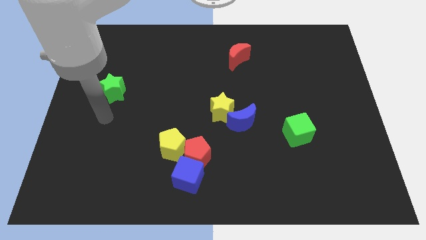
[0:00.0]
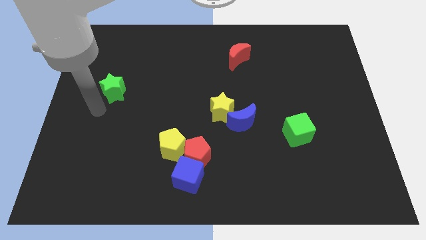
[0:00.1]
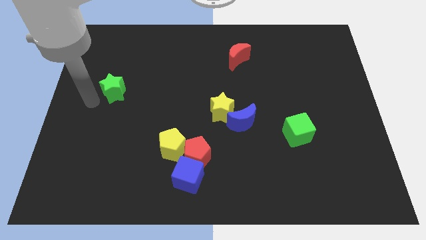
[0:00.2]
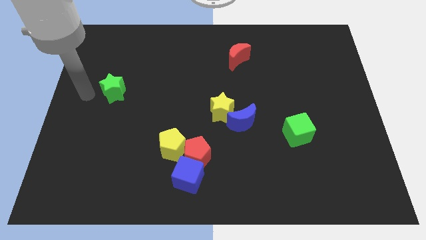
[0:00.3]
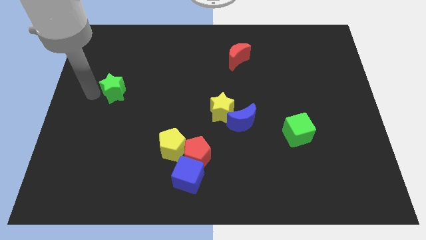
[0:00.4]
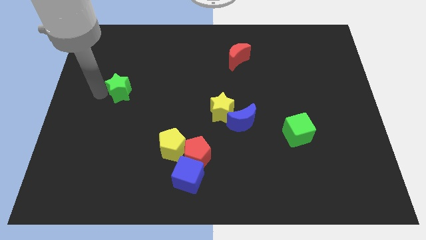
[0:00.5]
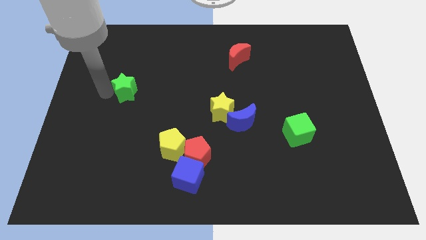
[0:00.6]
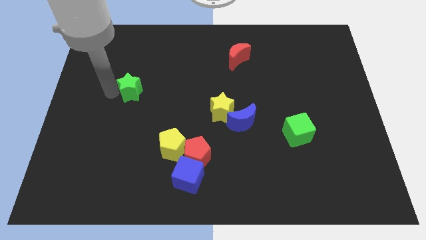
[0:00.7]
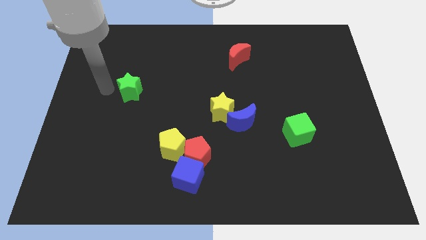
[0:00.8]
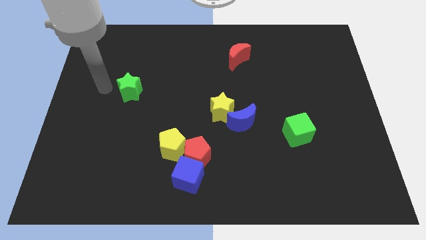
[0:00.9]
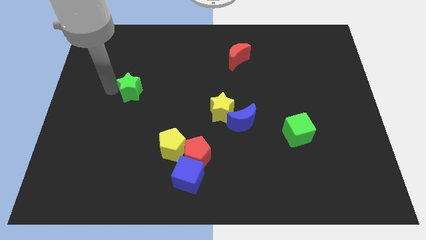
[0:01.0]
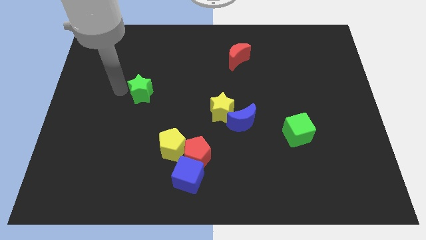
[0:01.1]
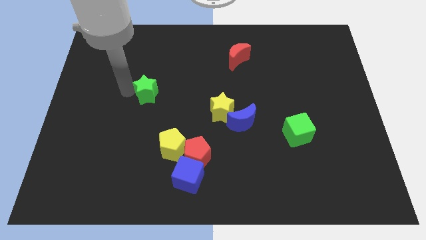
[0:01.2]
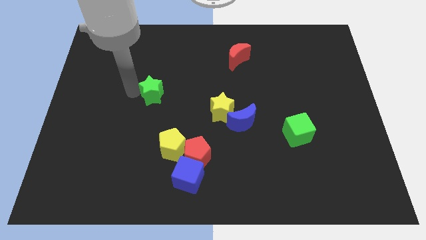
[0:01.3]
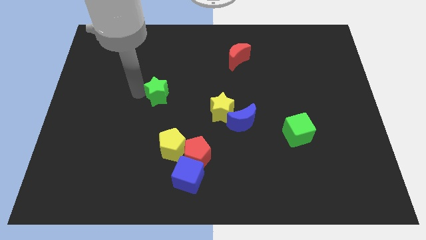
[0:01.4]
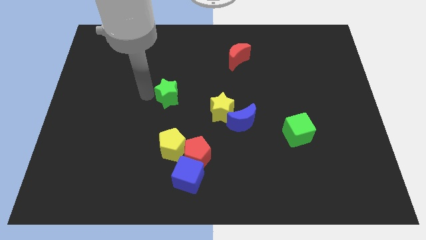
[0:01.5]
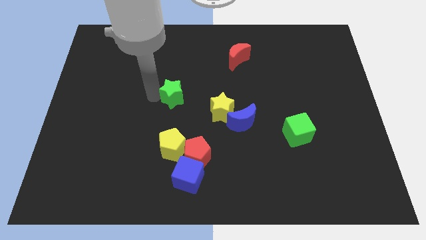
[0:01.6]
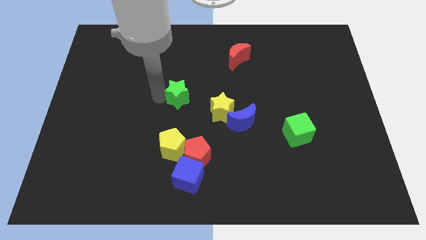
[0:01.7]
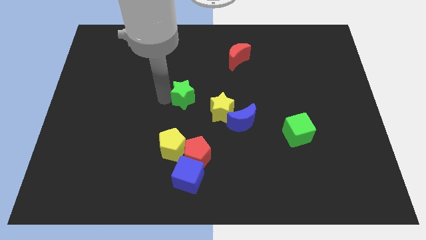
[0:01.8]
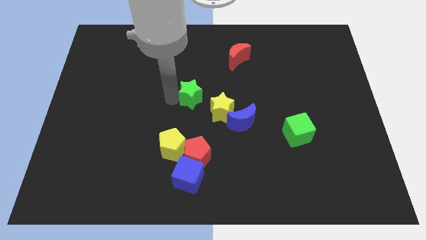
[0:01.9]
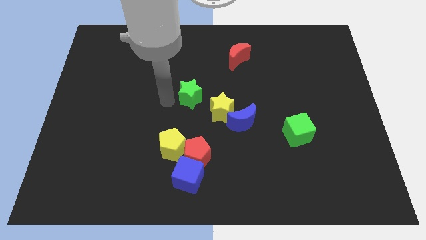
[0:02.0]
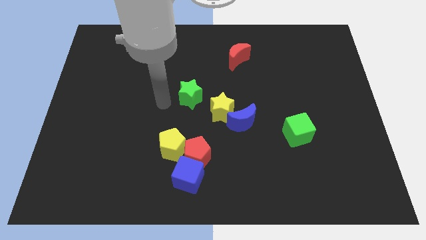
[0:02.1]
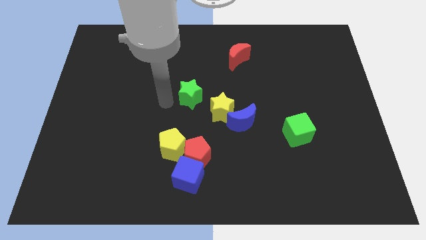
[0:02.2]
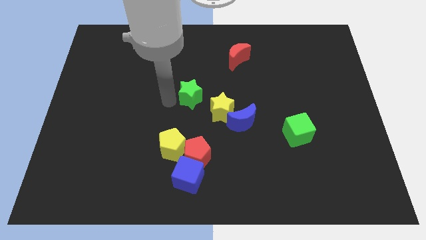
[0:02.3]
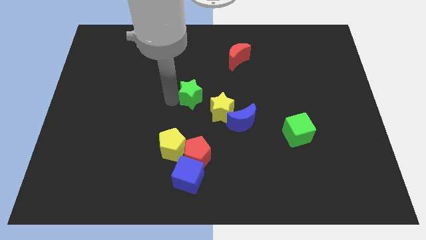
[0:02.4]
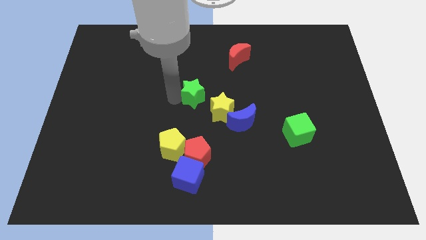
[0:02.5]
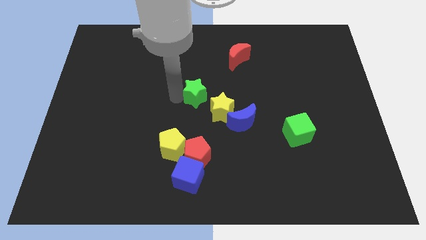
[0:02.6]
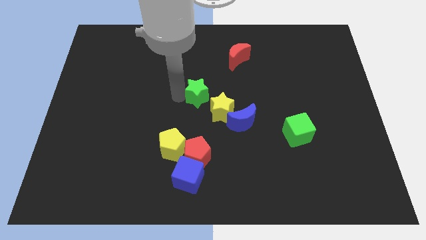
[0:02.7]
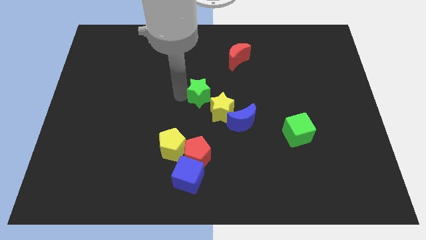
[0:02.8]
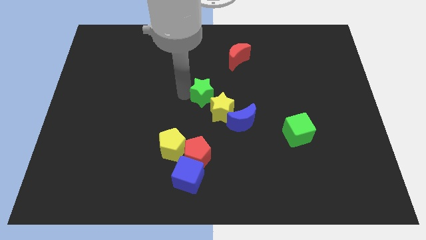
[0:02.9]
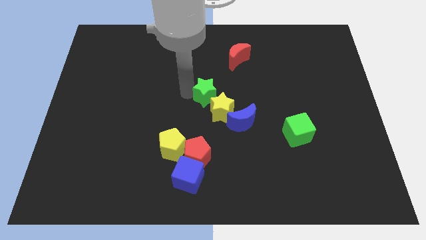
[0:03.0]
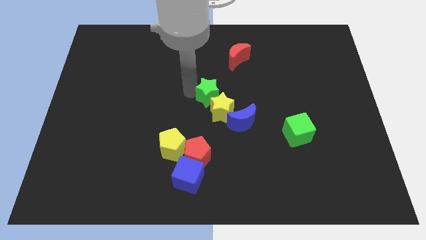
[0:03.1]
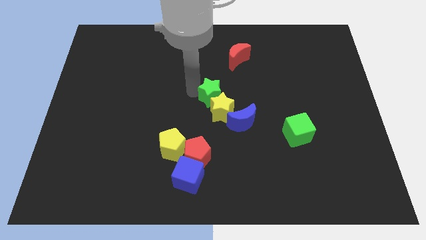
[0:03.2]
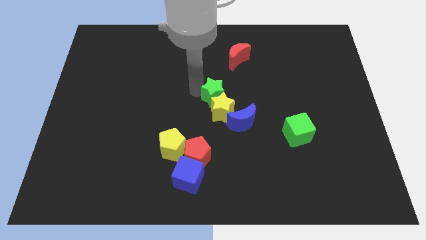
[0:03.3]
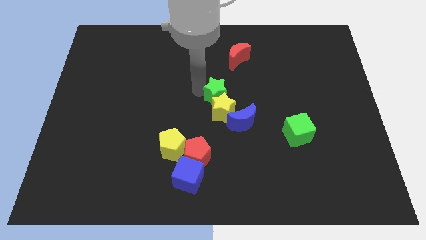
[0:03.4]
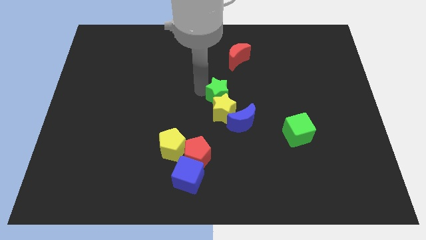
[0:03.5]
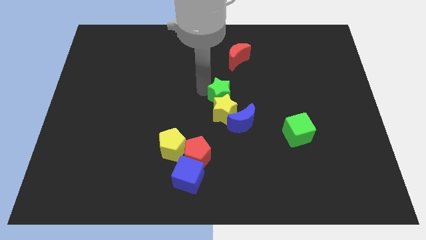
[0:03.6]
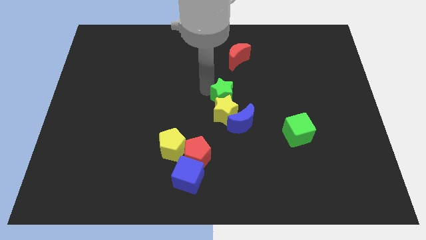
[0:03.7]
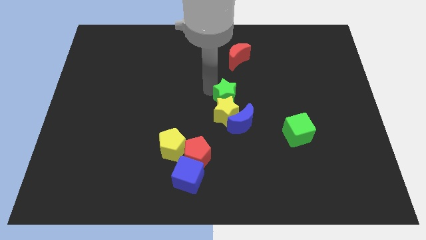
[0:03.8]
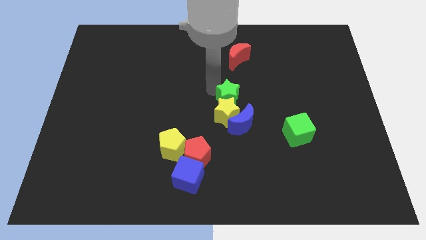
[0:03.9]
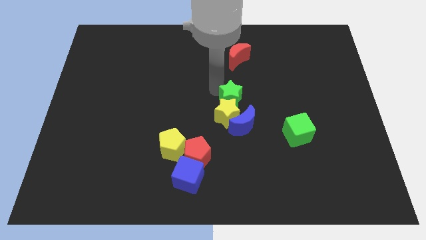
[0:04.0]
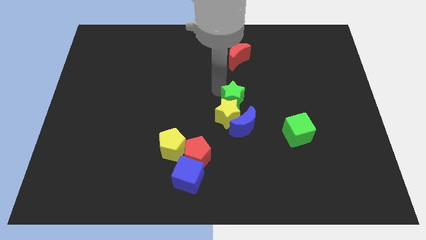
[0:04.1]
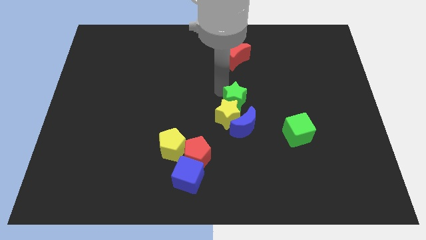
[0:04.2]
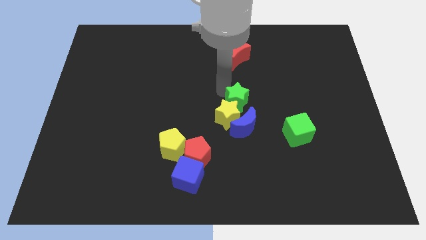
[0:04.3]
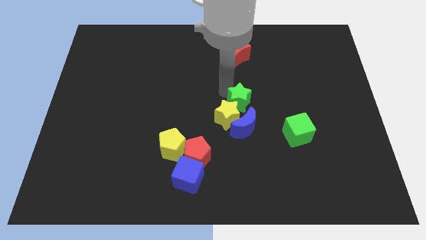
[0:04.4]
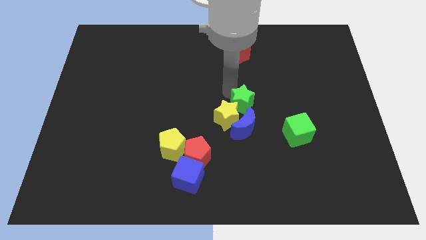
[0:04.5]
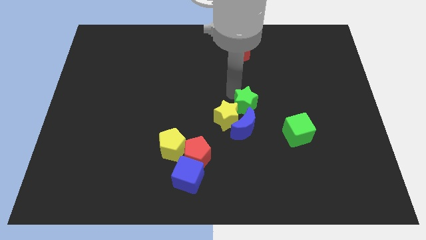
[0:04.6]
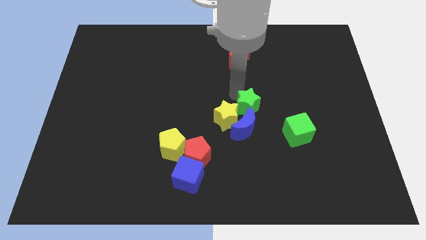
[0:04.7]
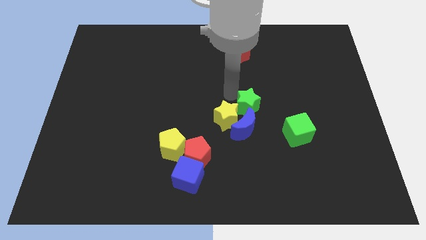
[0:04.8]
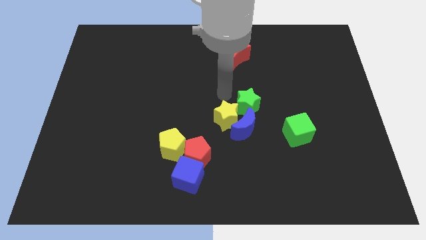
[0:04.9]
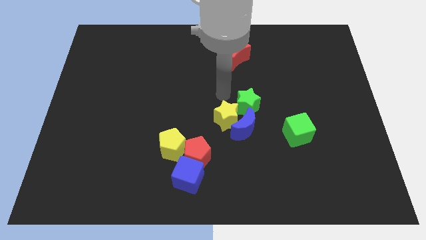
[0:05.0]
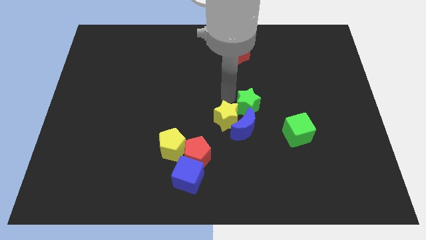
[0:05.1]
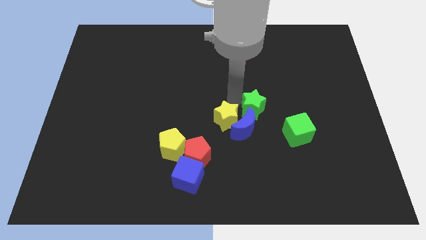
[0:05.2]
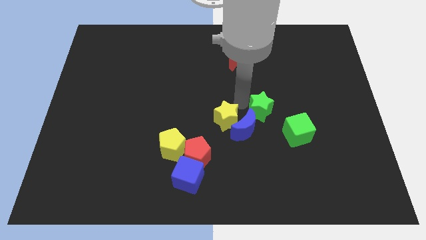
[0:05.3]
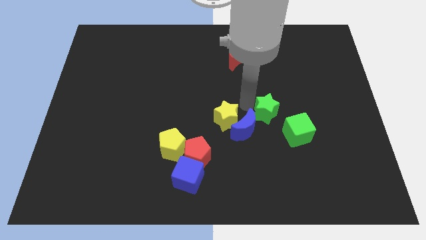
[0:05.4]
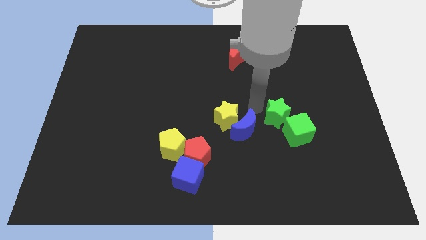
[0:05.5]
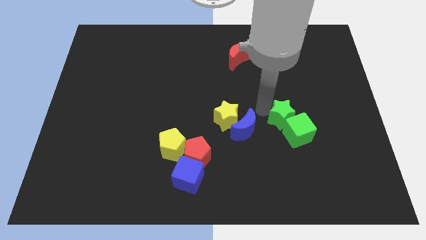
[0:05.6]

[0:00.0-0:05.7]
slide the green star to the green cube

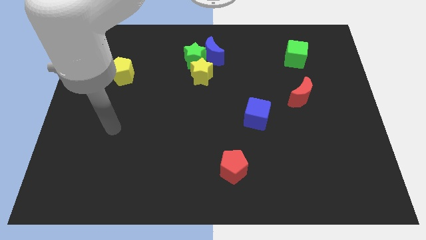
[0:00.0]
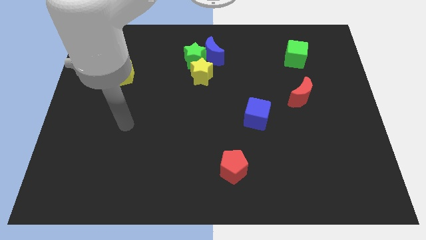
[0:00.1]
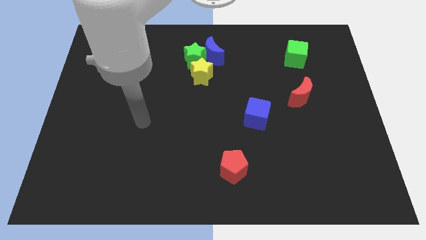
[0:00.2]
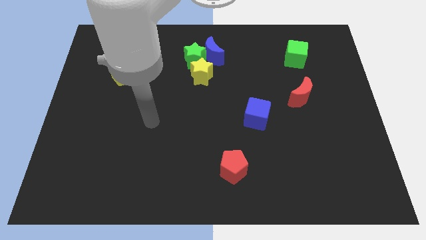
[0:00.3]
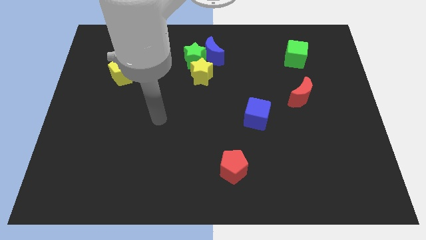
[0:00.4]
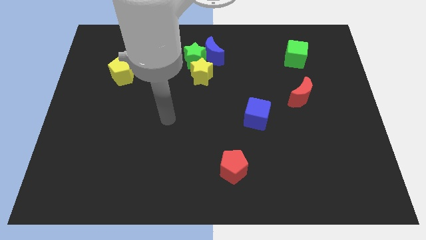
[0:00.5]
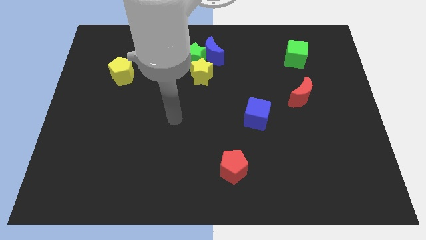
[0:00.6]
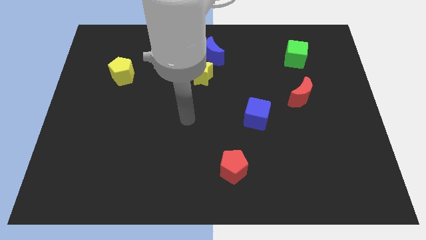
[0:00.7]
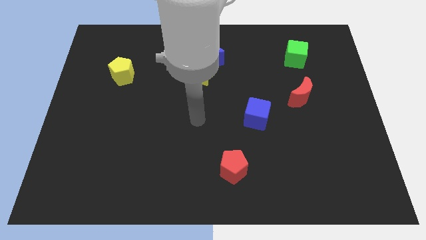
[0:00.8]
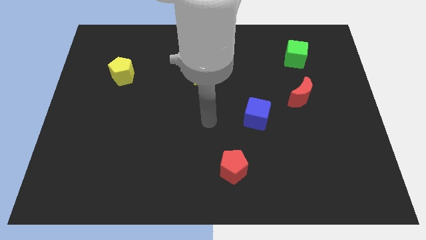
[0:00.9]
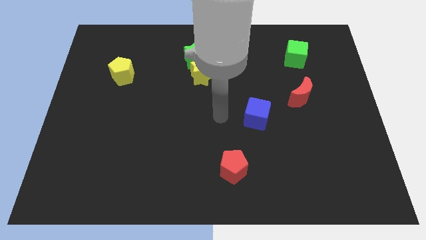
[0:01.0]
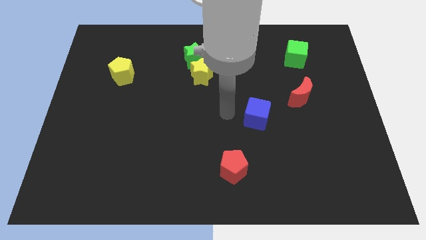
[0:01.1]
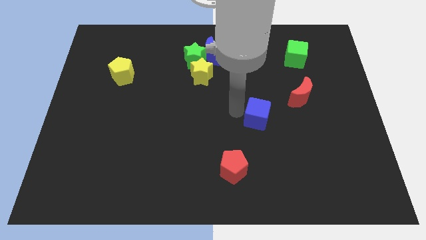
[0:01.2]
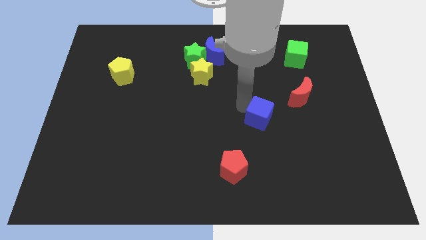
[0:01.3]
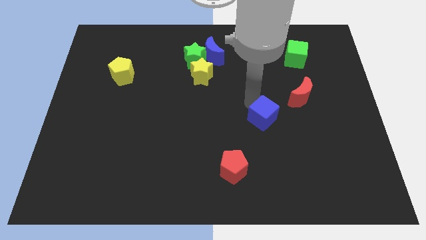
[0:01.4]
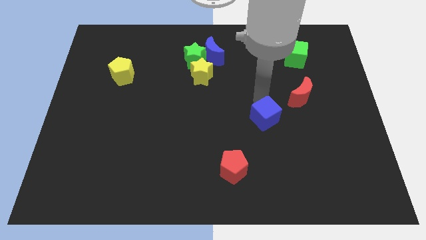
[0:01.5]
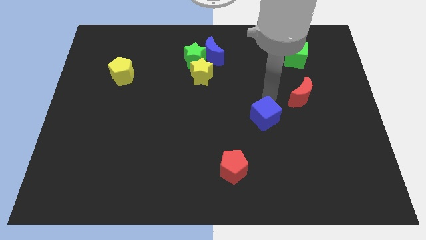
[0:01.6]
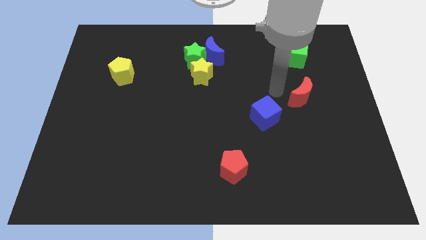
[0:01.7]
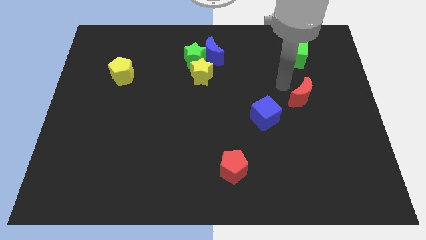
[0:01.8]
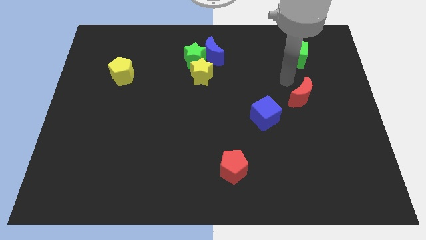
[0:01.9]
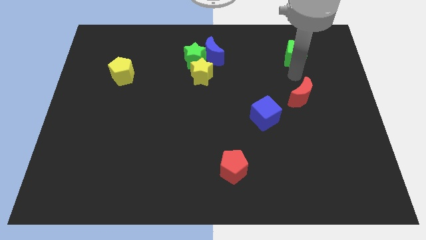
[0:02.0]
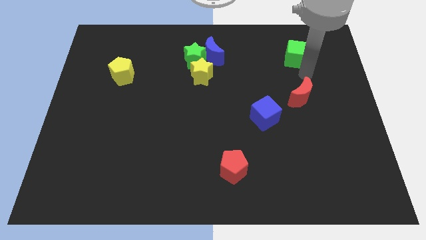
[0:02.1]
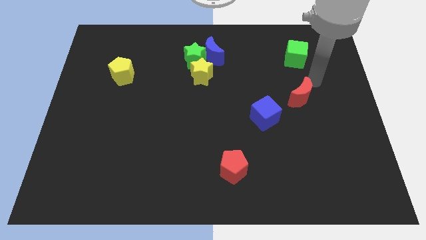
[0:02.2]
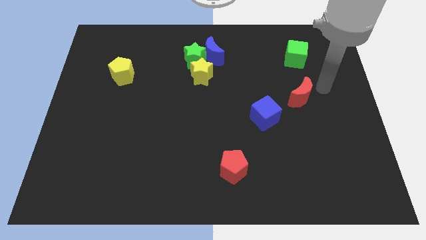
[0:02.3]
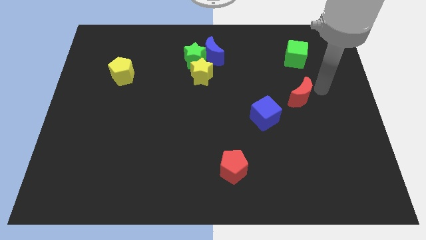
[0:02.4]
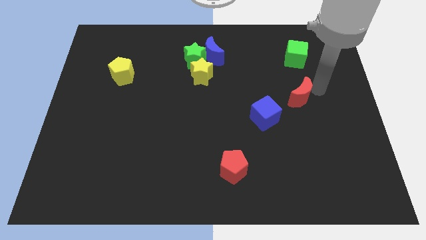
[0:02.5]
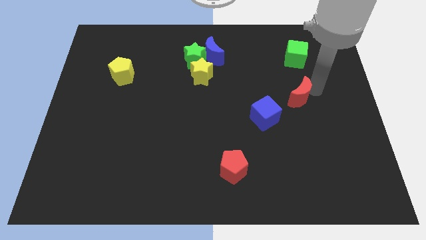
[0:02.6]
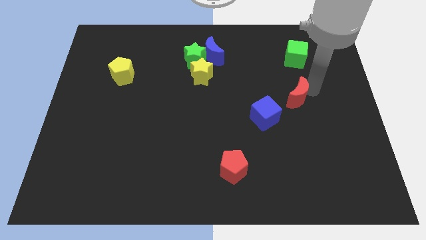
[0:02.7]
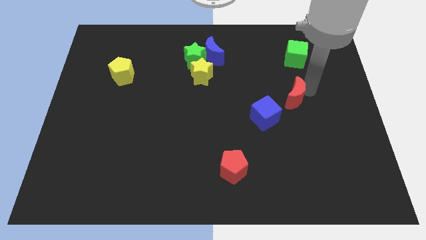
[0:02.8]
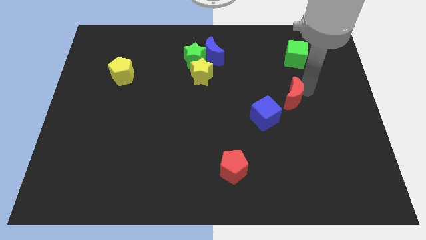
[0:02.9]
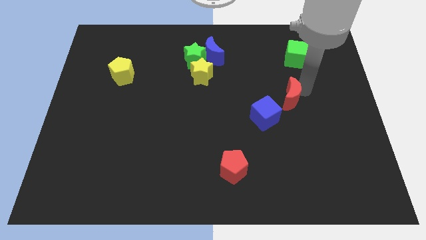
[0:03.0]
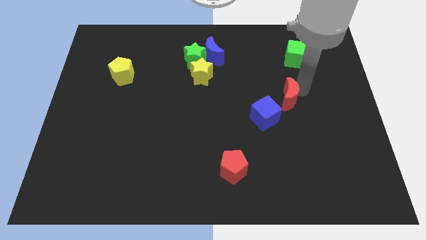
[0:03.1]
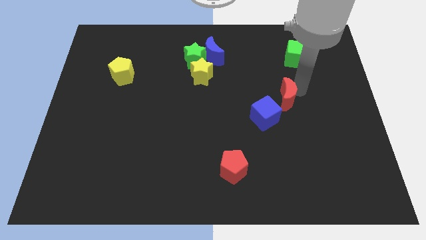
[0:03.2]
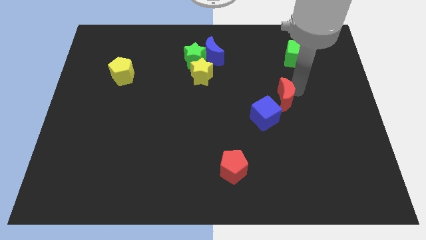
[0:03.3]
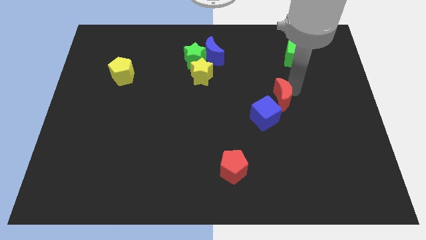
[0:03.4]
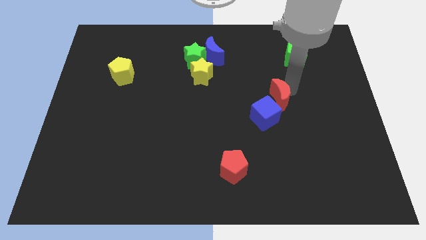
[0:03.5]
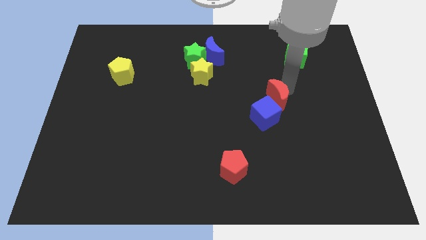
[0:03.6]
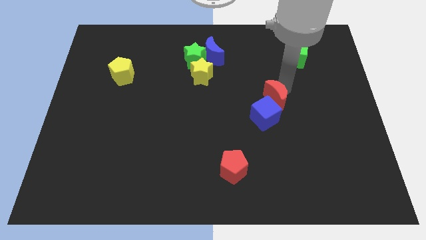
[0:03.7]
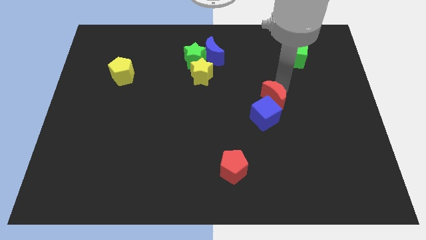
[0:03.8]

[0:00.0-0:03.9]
move the red moon next to the blue cube
